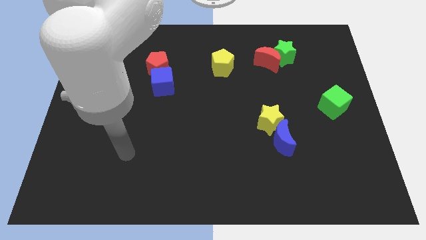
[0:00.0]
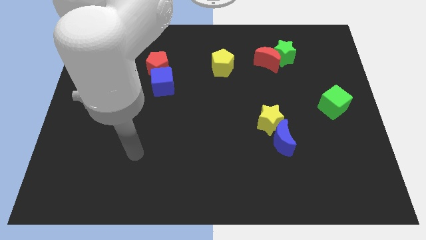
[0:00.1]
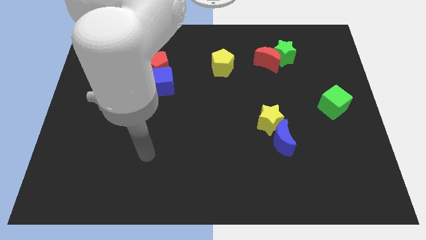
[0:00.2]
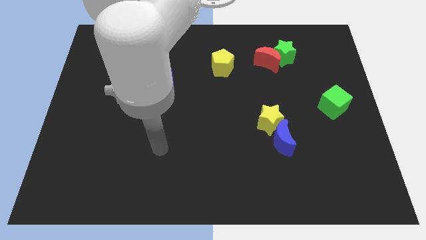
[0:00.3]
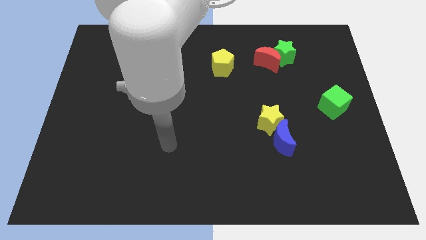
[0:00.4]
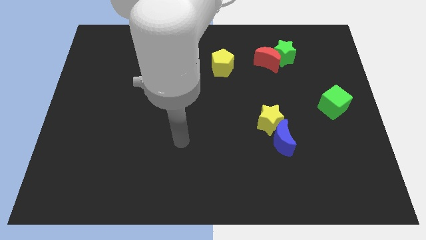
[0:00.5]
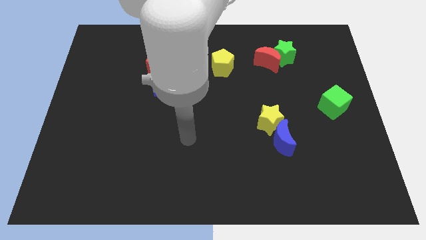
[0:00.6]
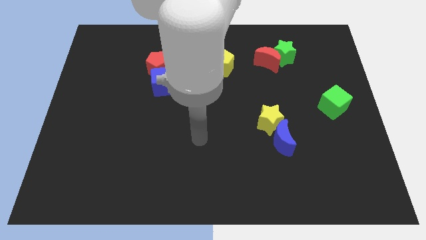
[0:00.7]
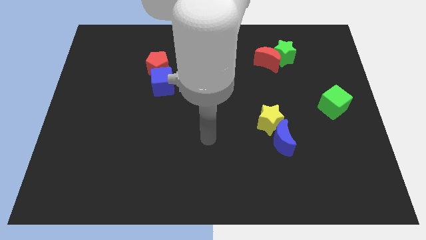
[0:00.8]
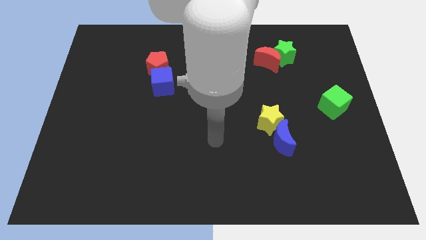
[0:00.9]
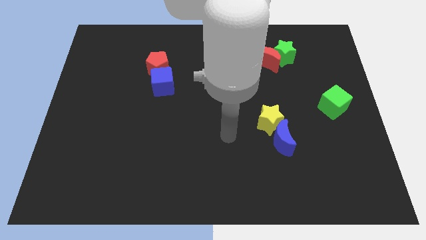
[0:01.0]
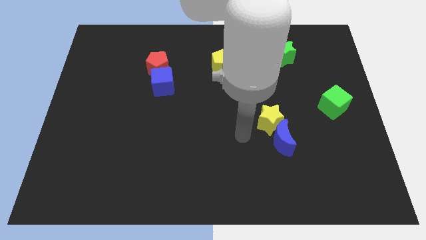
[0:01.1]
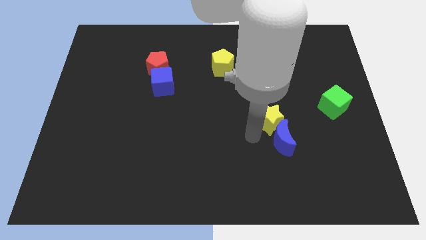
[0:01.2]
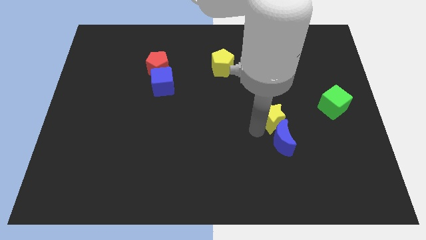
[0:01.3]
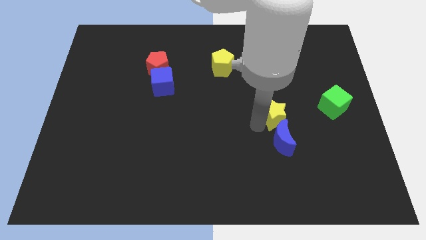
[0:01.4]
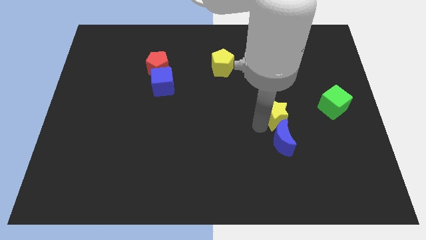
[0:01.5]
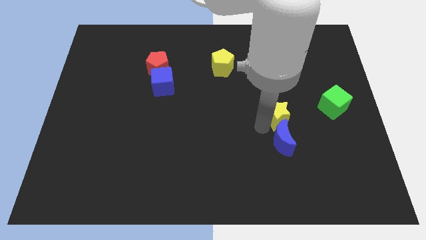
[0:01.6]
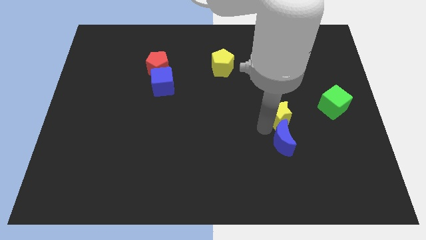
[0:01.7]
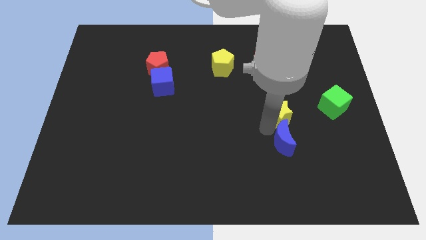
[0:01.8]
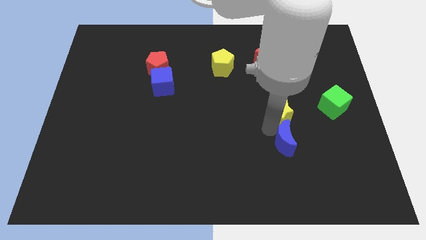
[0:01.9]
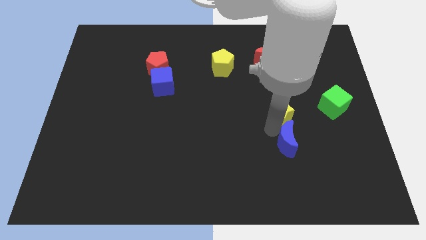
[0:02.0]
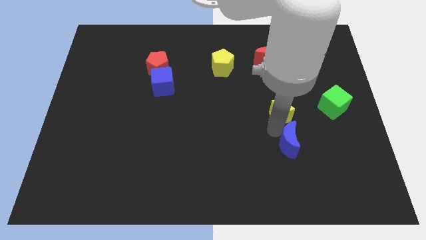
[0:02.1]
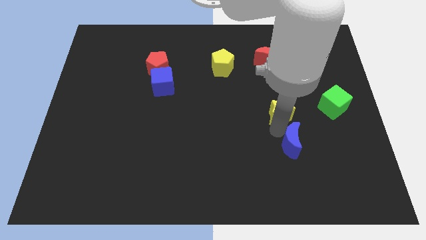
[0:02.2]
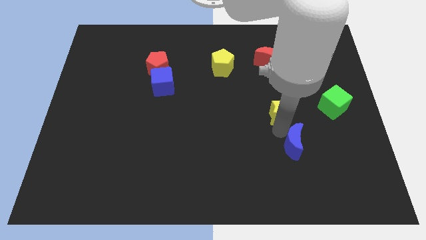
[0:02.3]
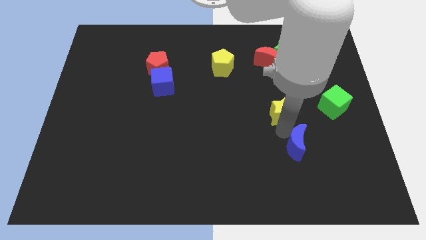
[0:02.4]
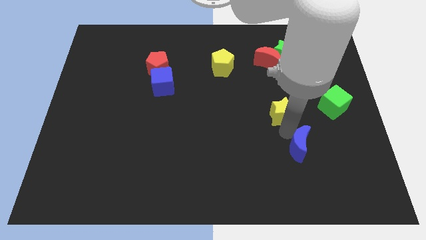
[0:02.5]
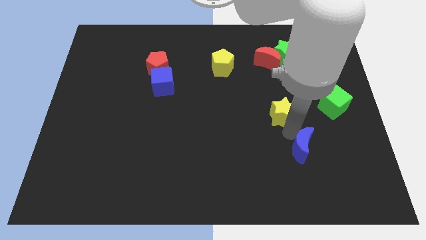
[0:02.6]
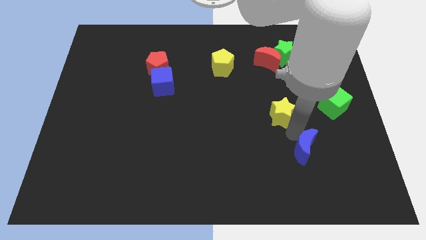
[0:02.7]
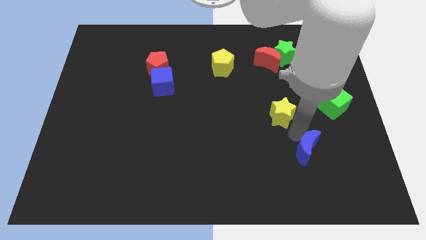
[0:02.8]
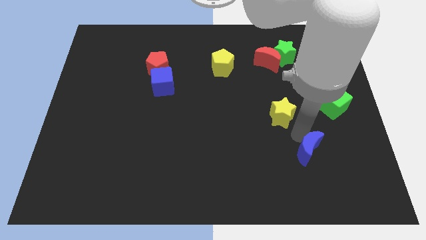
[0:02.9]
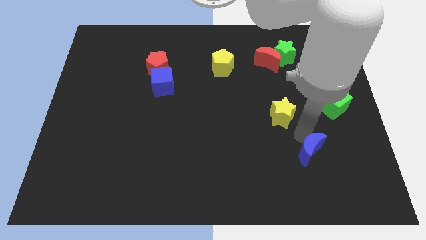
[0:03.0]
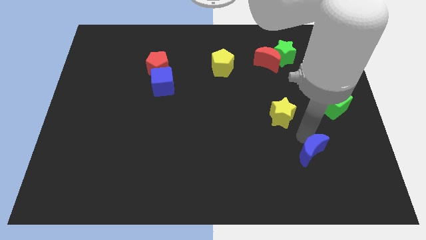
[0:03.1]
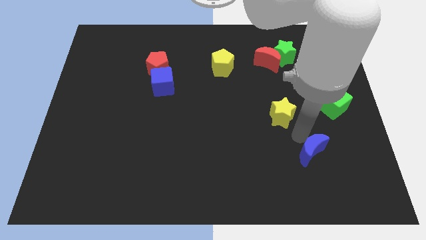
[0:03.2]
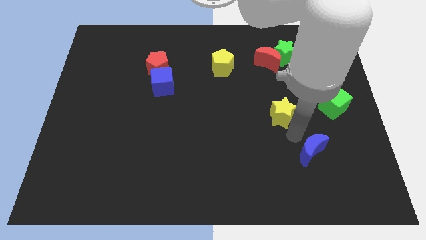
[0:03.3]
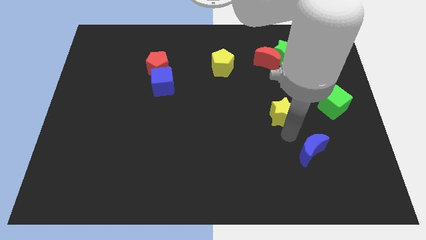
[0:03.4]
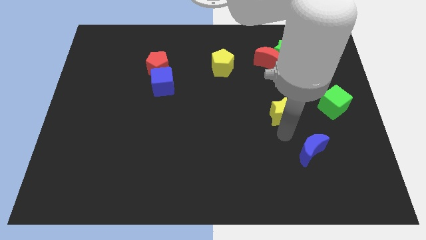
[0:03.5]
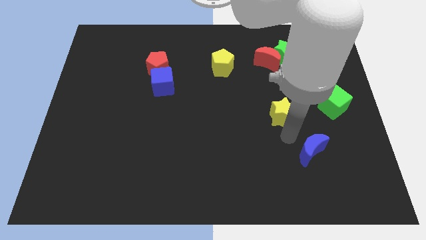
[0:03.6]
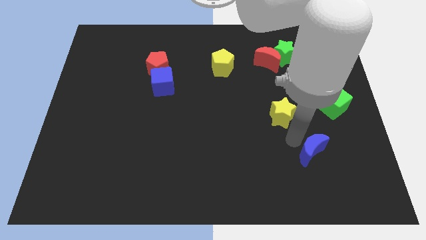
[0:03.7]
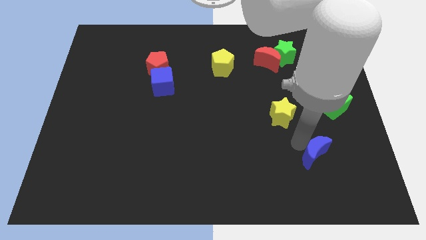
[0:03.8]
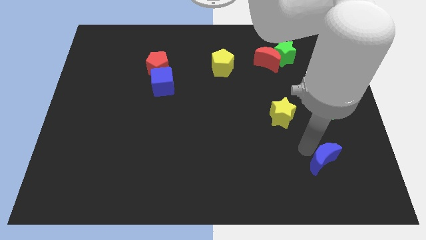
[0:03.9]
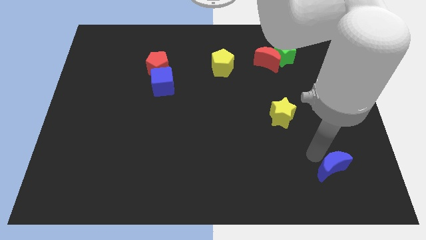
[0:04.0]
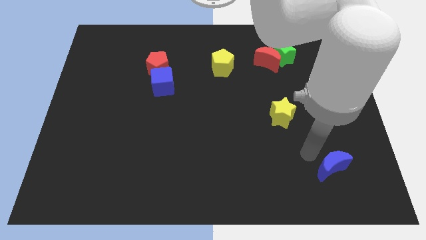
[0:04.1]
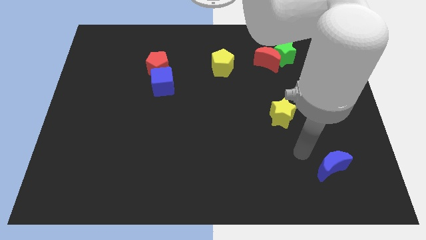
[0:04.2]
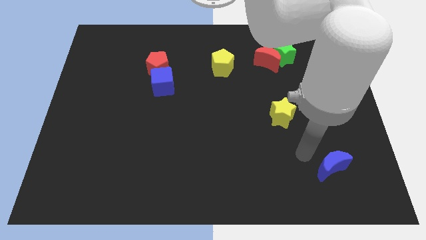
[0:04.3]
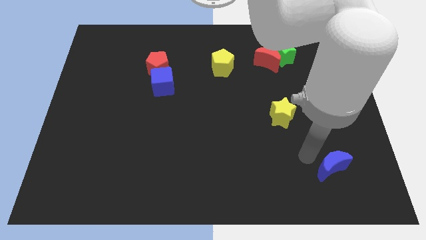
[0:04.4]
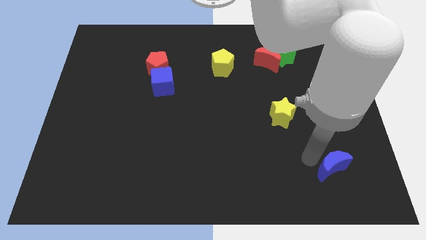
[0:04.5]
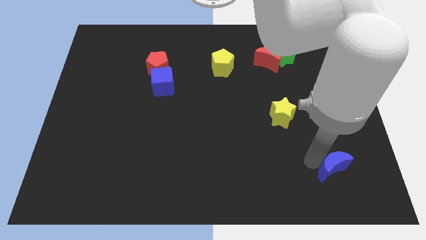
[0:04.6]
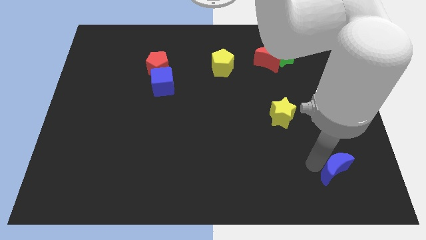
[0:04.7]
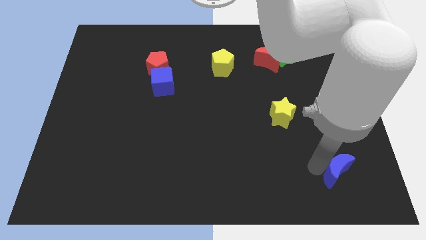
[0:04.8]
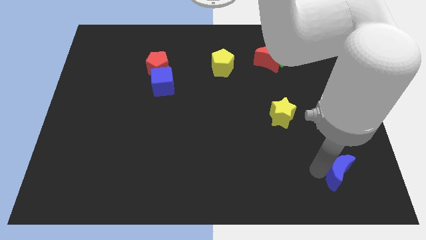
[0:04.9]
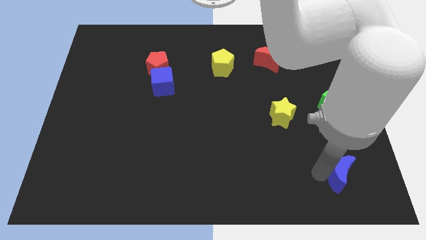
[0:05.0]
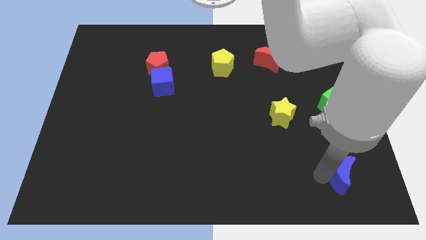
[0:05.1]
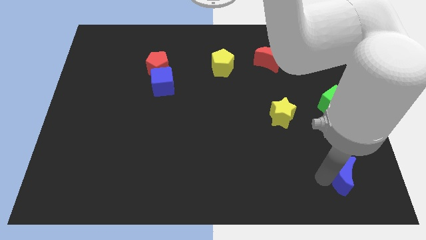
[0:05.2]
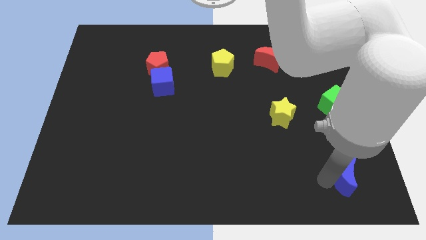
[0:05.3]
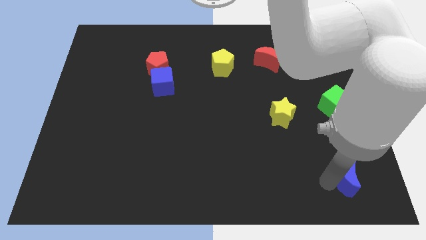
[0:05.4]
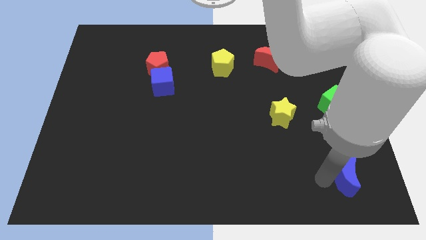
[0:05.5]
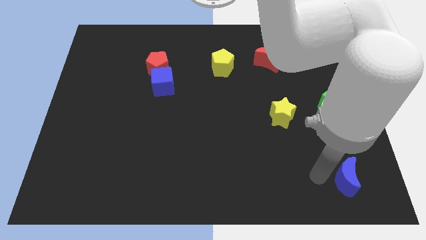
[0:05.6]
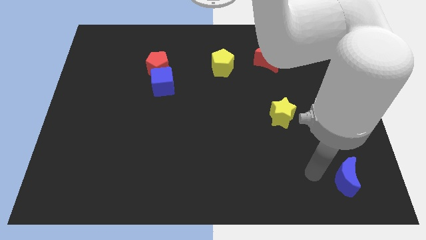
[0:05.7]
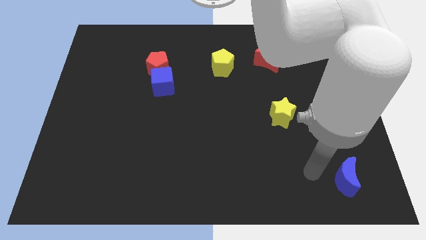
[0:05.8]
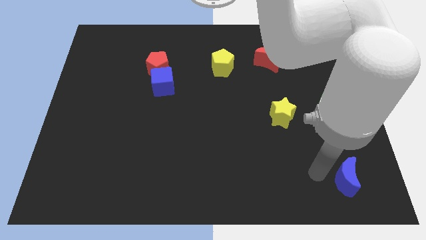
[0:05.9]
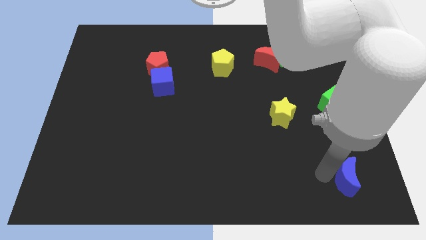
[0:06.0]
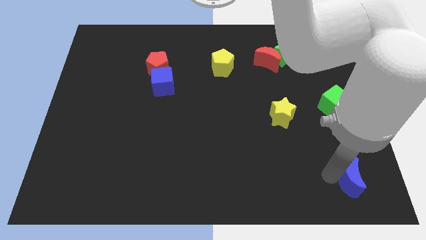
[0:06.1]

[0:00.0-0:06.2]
slide the blue moon to the lower right corner
